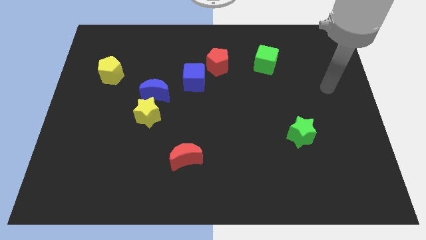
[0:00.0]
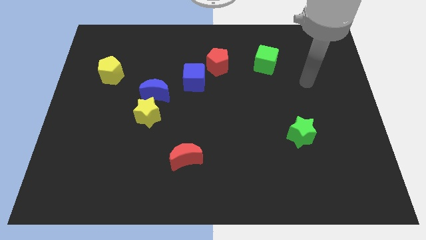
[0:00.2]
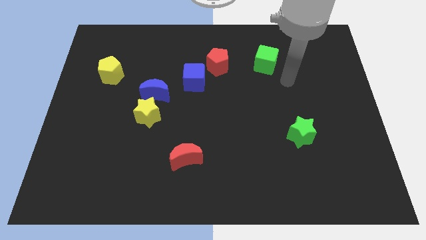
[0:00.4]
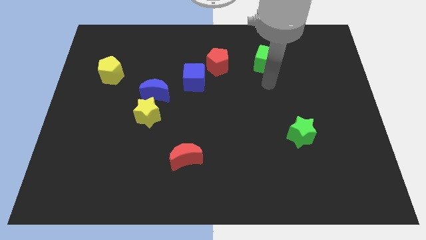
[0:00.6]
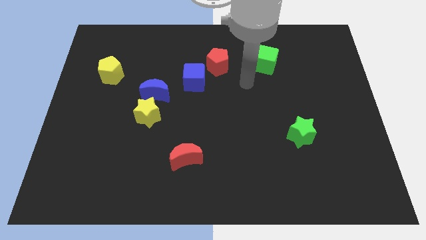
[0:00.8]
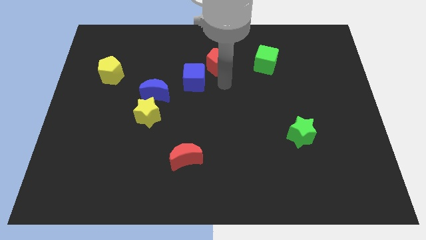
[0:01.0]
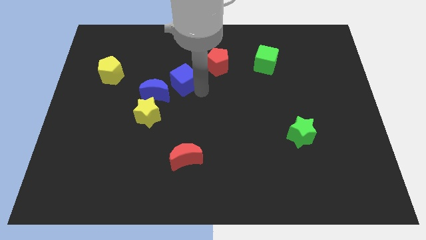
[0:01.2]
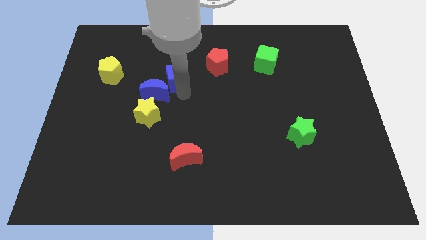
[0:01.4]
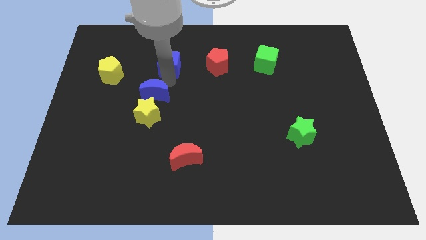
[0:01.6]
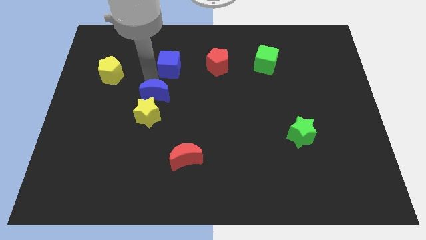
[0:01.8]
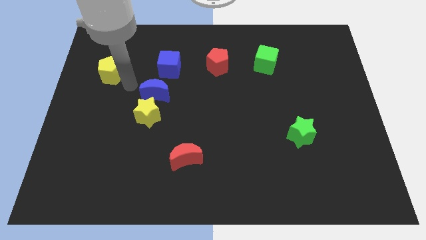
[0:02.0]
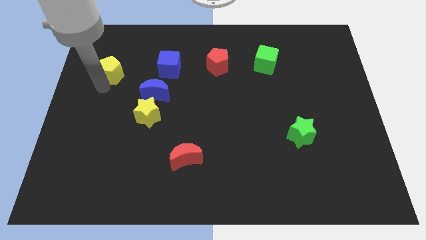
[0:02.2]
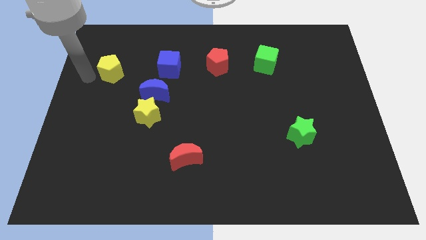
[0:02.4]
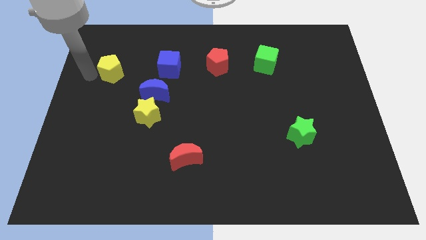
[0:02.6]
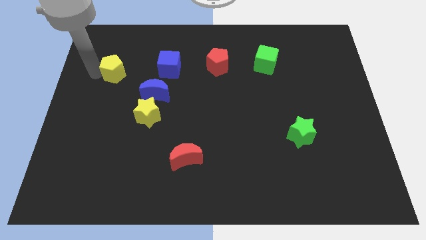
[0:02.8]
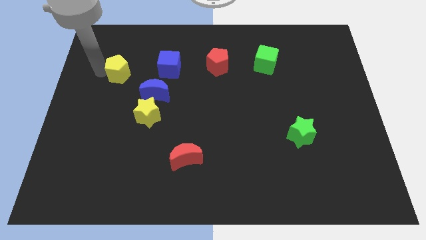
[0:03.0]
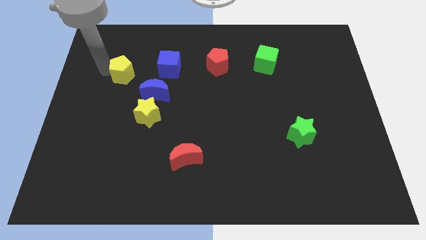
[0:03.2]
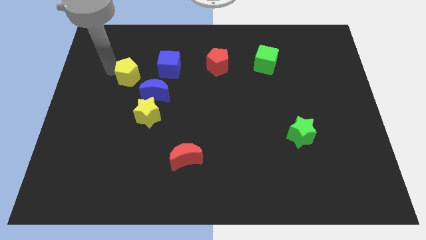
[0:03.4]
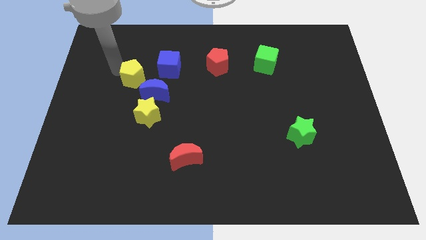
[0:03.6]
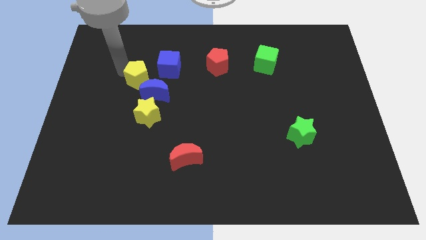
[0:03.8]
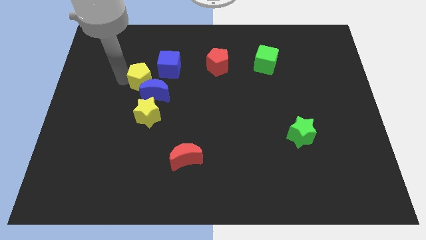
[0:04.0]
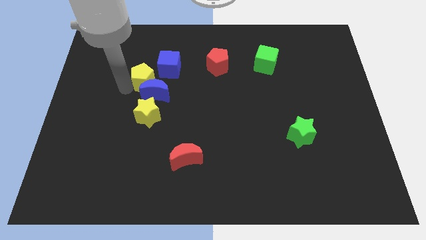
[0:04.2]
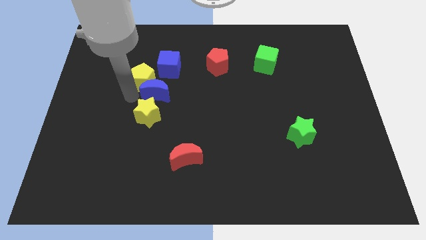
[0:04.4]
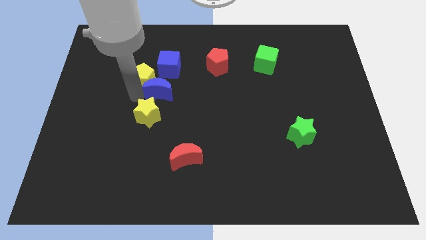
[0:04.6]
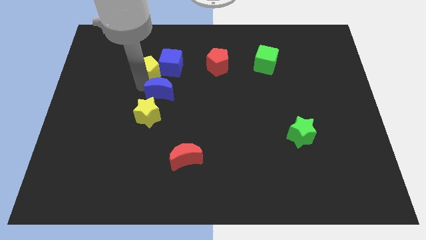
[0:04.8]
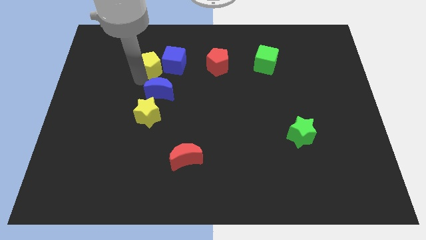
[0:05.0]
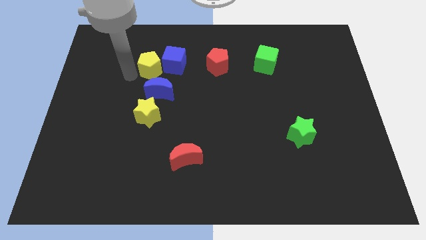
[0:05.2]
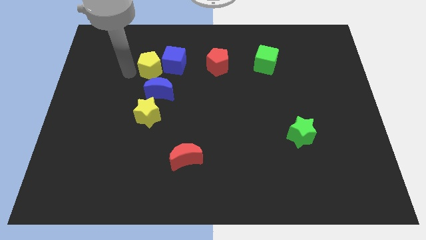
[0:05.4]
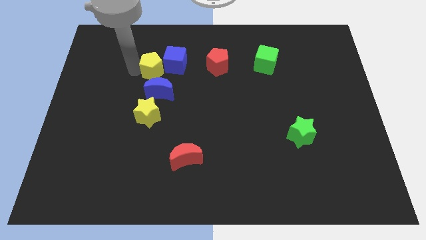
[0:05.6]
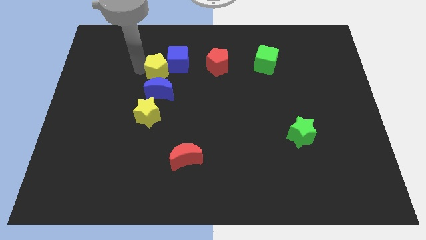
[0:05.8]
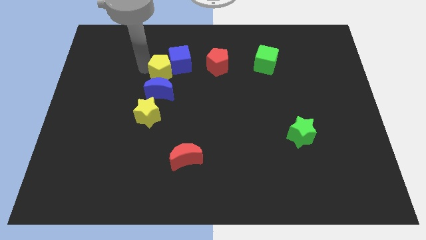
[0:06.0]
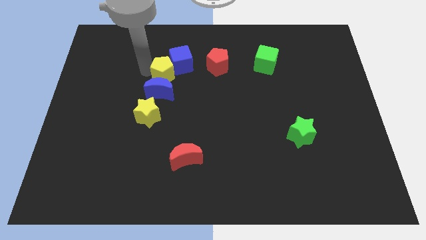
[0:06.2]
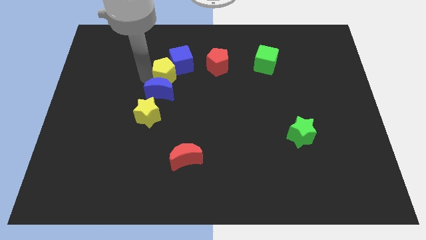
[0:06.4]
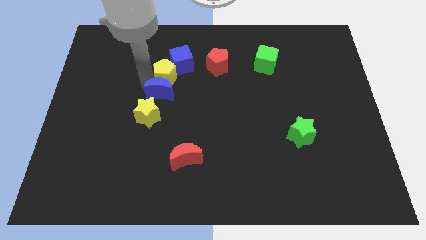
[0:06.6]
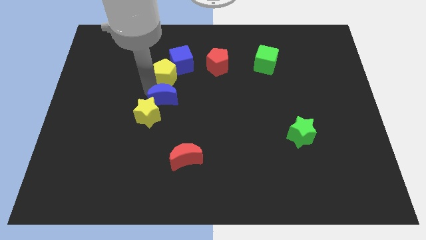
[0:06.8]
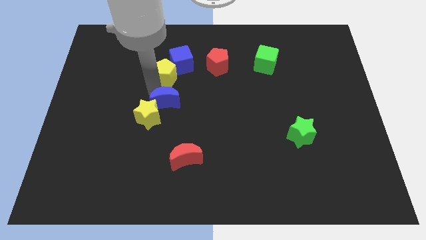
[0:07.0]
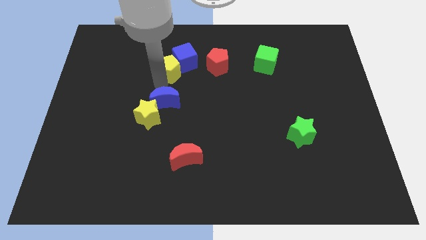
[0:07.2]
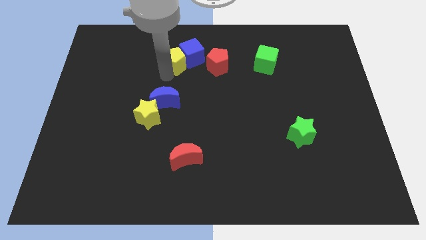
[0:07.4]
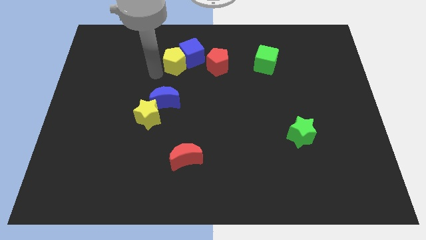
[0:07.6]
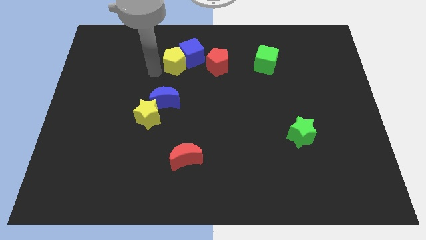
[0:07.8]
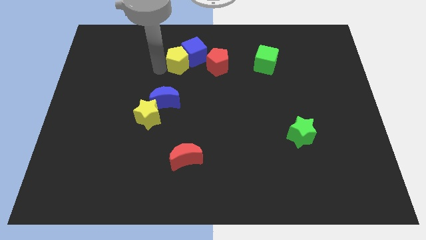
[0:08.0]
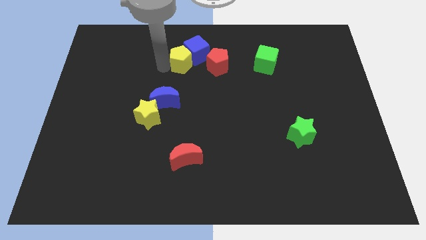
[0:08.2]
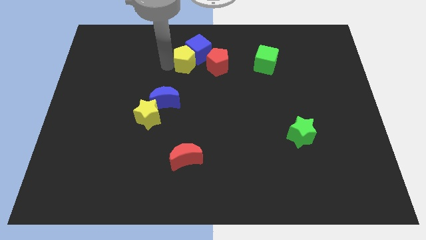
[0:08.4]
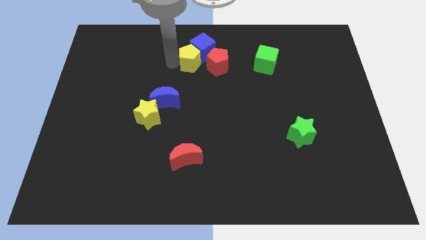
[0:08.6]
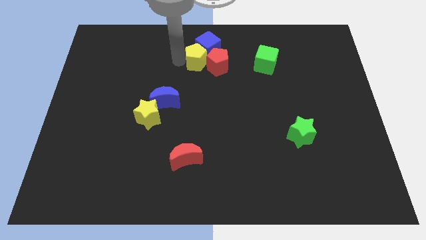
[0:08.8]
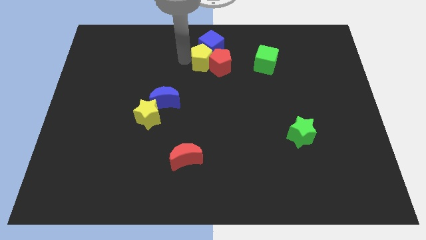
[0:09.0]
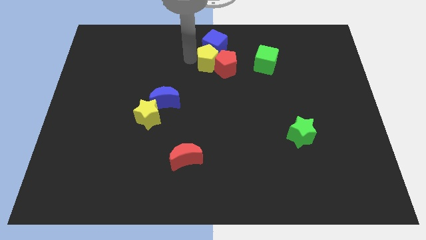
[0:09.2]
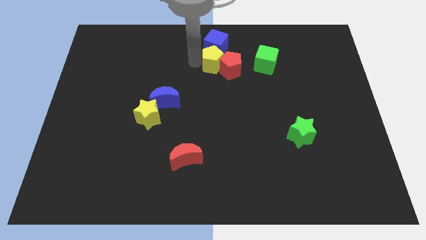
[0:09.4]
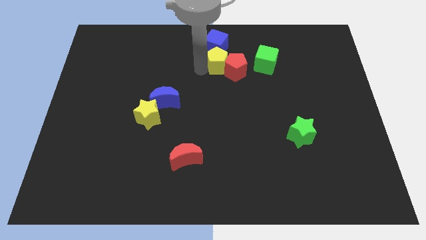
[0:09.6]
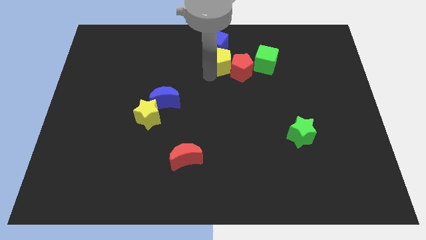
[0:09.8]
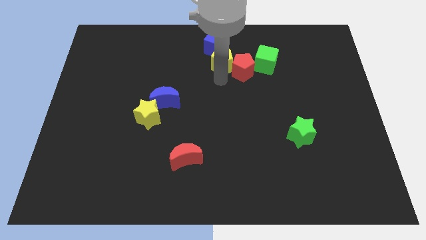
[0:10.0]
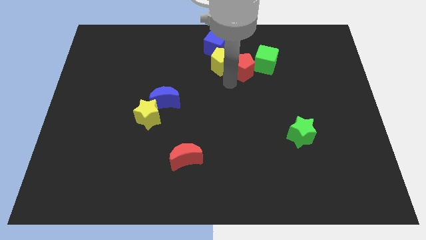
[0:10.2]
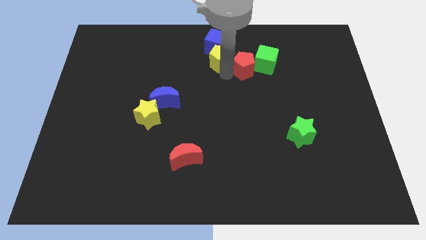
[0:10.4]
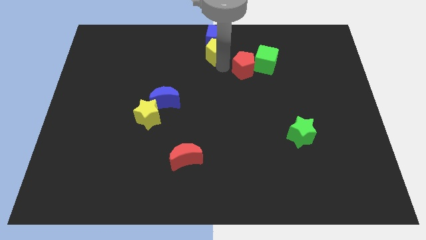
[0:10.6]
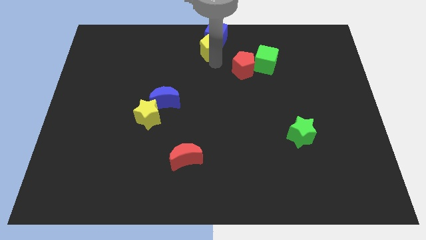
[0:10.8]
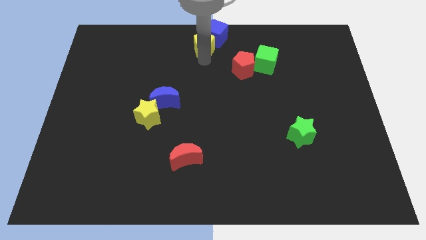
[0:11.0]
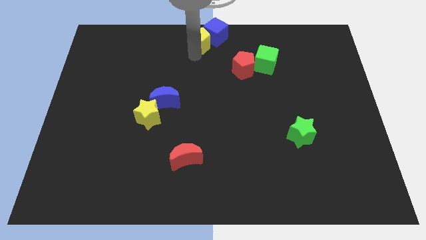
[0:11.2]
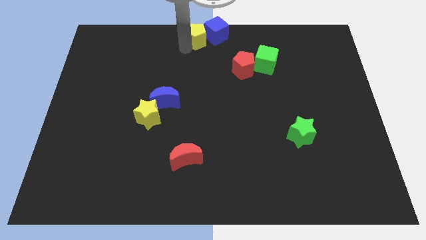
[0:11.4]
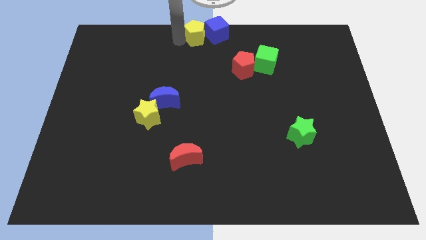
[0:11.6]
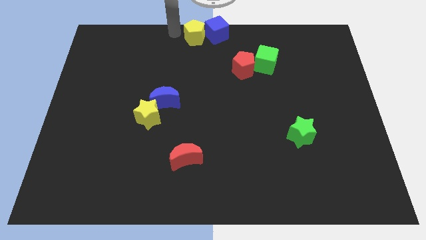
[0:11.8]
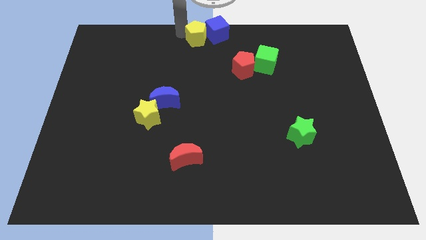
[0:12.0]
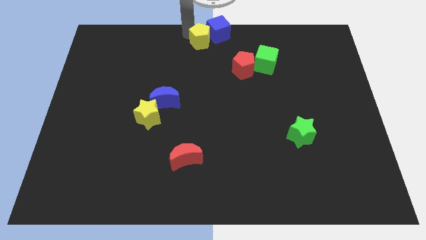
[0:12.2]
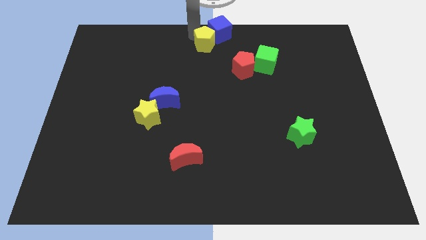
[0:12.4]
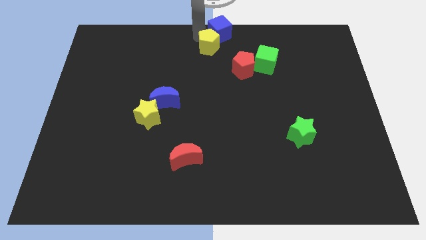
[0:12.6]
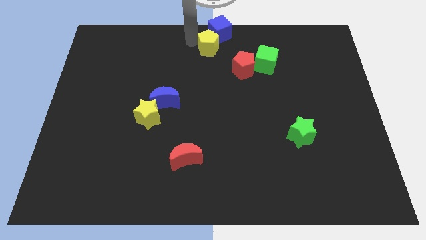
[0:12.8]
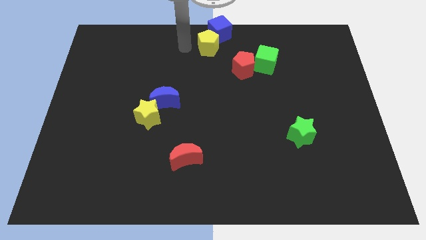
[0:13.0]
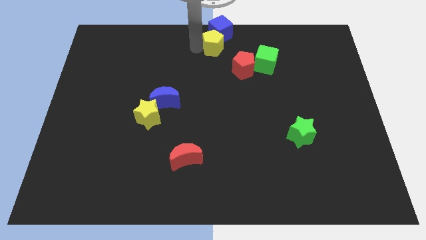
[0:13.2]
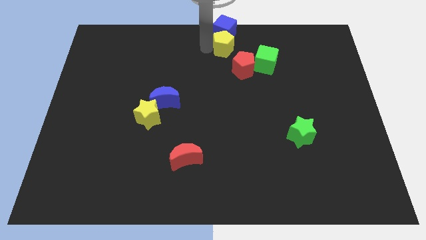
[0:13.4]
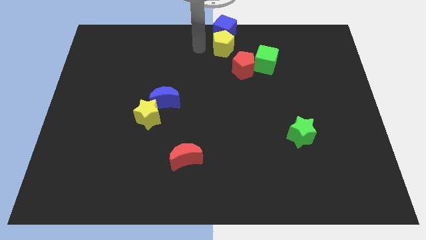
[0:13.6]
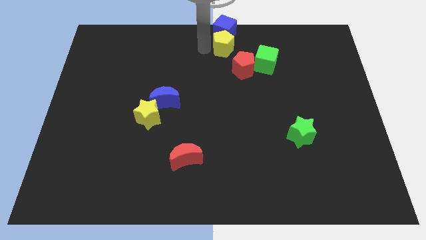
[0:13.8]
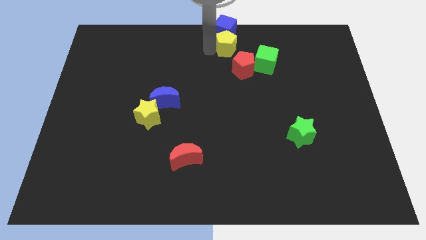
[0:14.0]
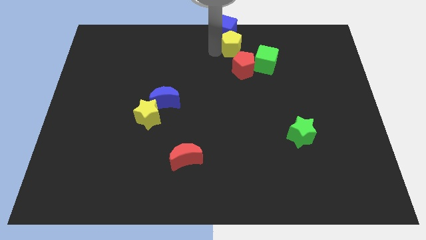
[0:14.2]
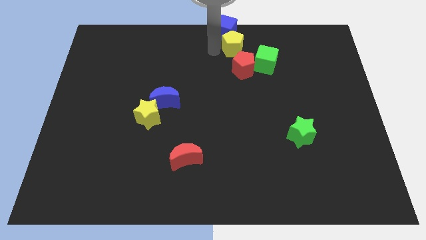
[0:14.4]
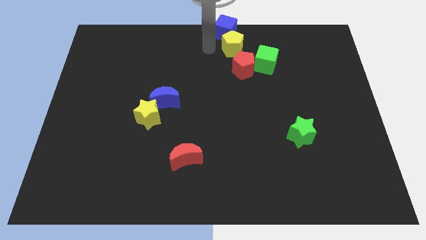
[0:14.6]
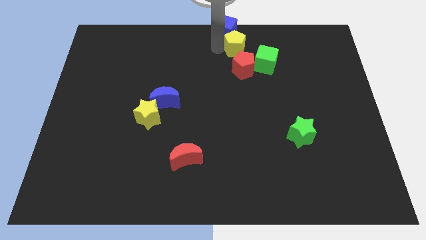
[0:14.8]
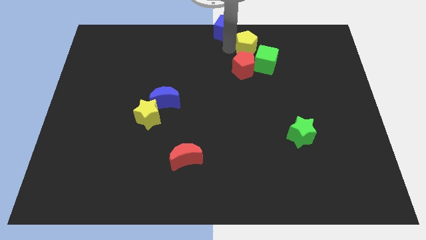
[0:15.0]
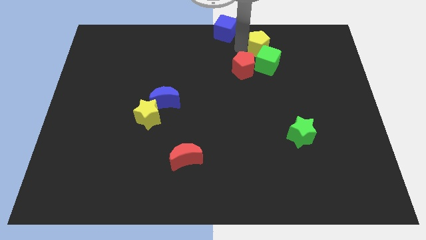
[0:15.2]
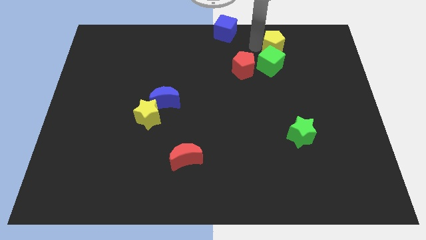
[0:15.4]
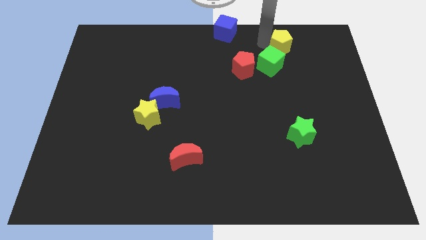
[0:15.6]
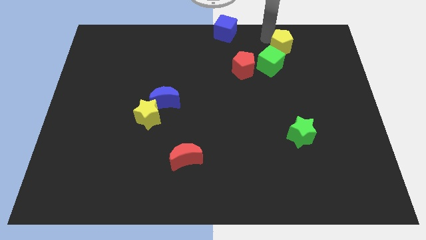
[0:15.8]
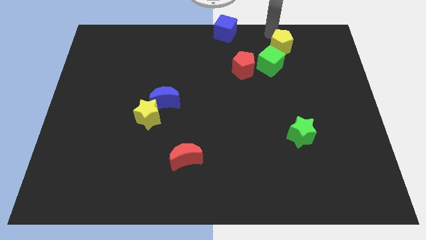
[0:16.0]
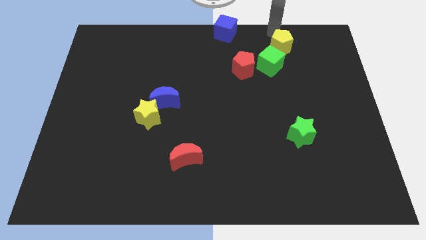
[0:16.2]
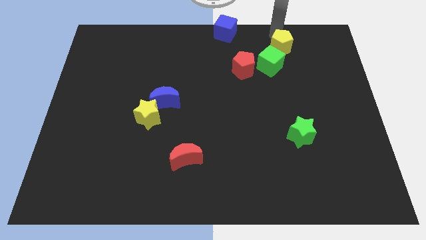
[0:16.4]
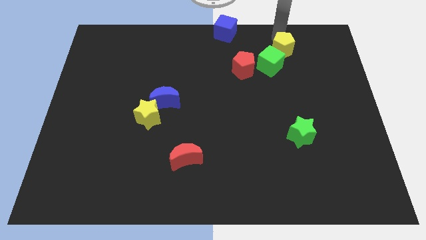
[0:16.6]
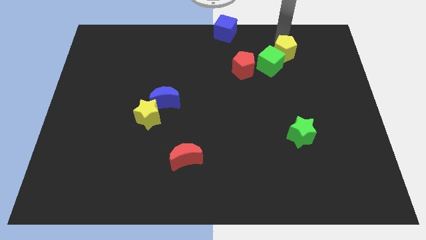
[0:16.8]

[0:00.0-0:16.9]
push the yellow pentagon to the right of the green cube
